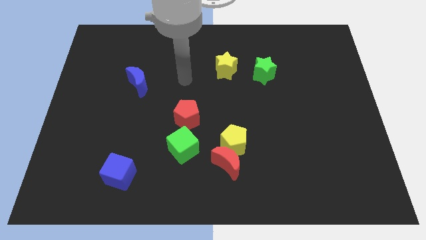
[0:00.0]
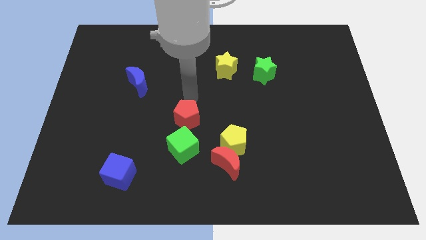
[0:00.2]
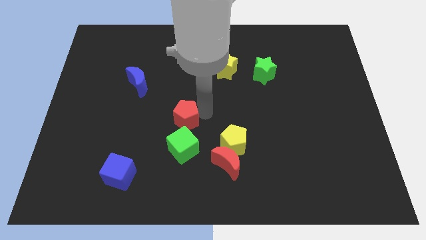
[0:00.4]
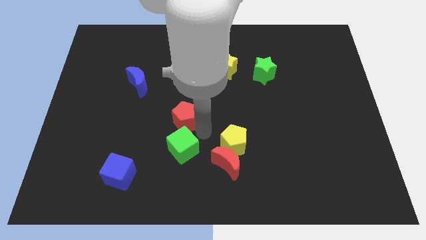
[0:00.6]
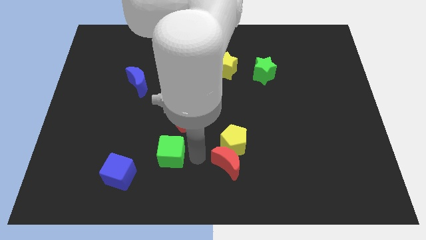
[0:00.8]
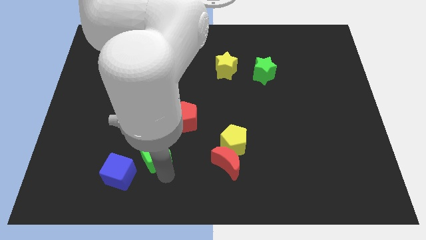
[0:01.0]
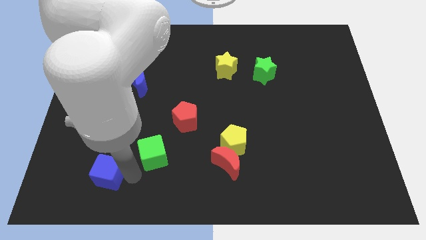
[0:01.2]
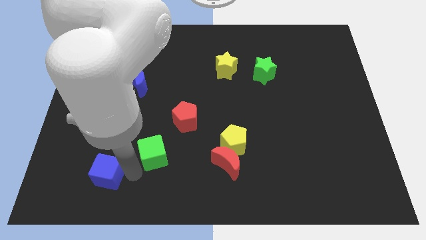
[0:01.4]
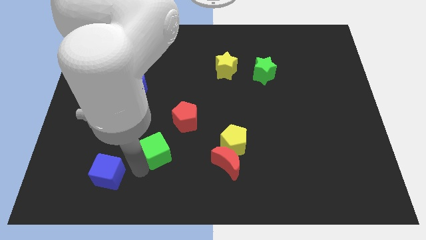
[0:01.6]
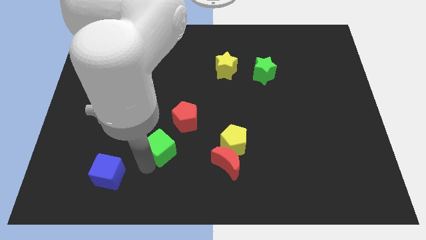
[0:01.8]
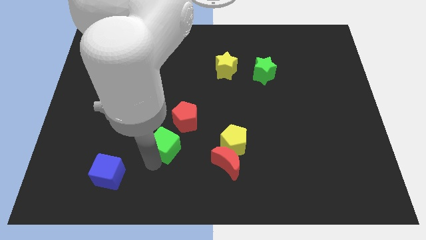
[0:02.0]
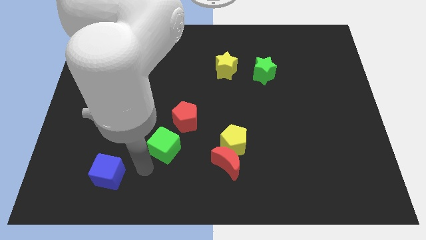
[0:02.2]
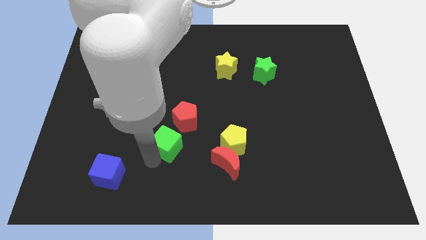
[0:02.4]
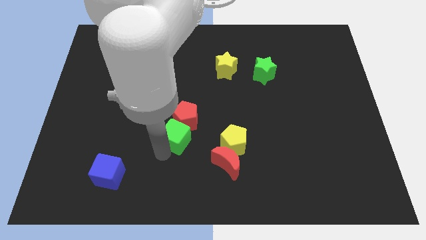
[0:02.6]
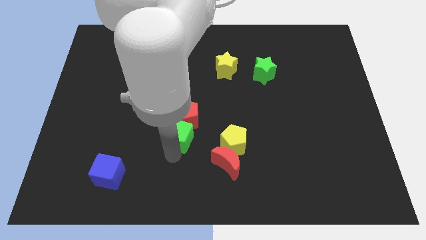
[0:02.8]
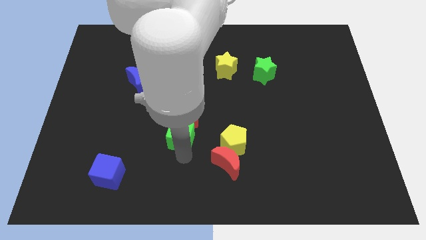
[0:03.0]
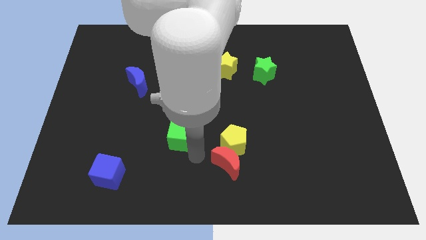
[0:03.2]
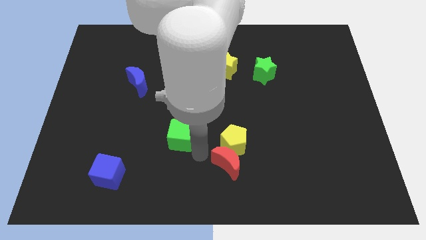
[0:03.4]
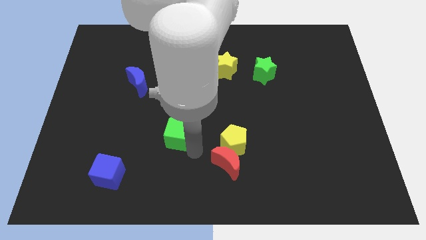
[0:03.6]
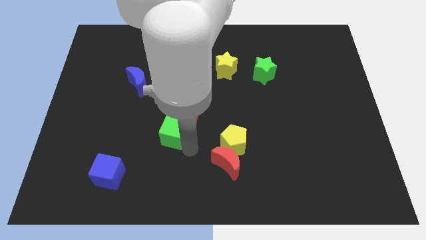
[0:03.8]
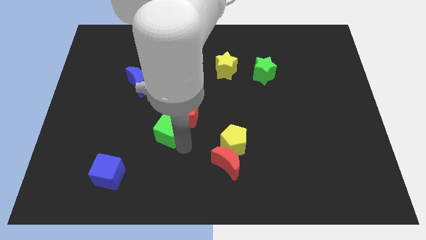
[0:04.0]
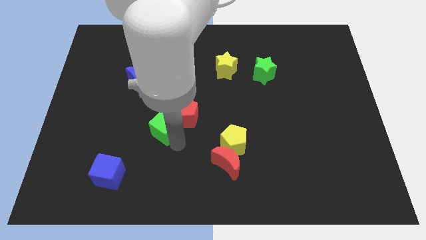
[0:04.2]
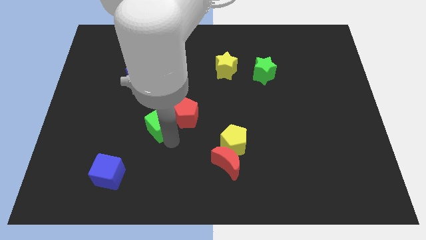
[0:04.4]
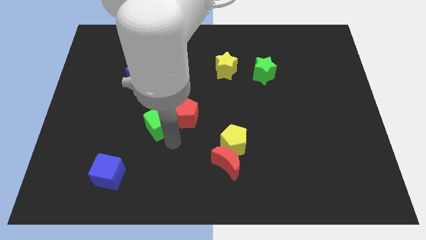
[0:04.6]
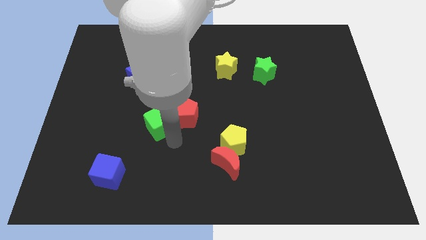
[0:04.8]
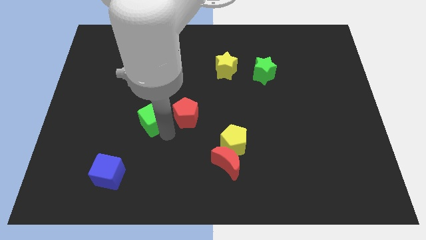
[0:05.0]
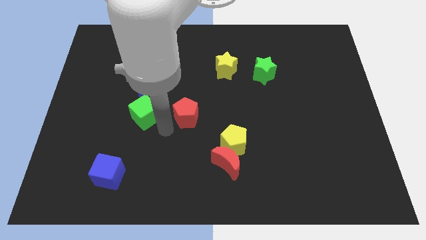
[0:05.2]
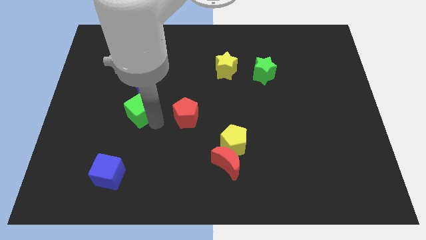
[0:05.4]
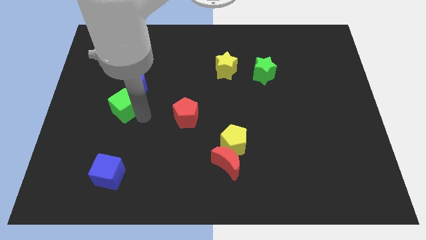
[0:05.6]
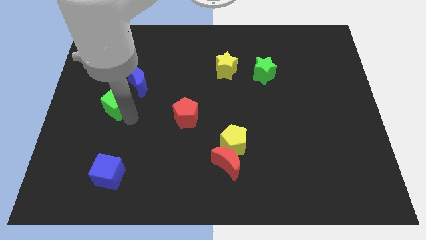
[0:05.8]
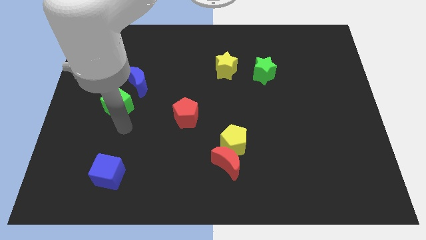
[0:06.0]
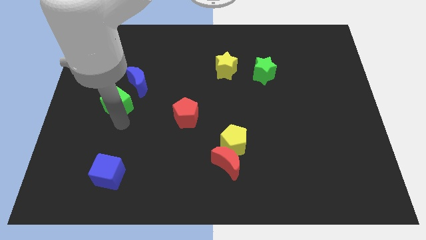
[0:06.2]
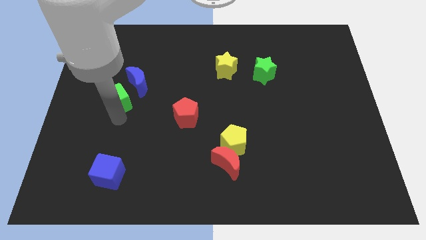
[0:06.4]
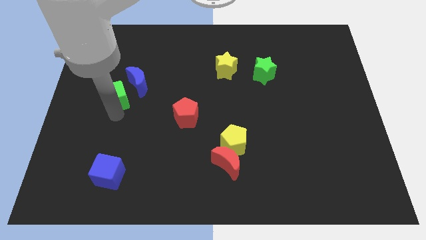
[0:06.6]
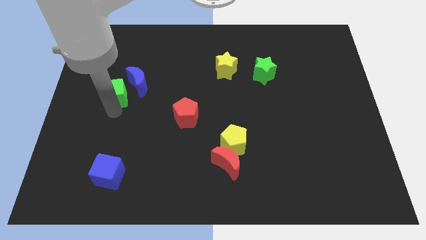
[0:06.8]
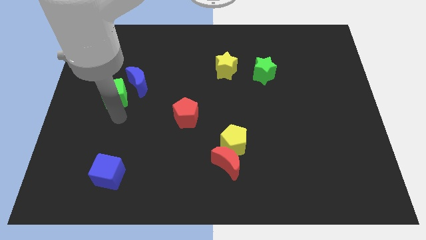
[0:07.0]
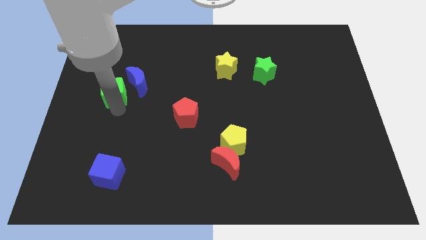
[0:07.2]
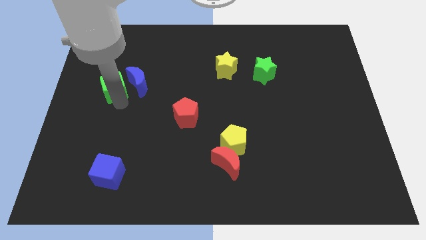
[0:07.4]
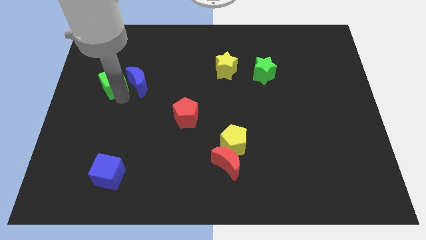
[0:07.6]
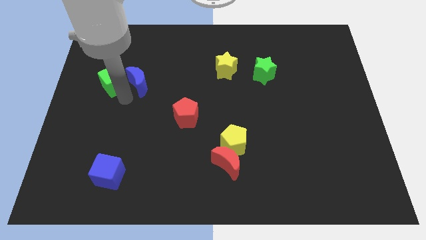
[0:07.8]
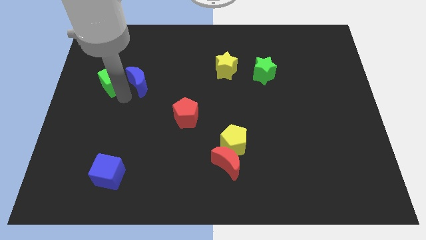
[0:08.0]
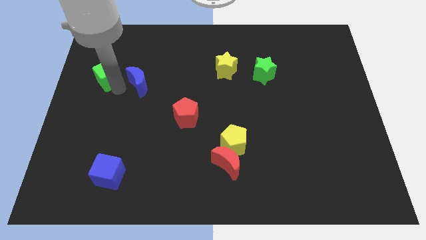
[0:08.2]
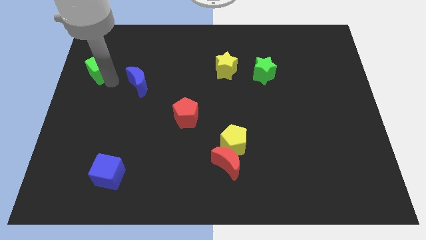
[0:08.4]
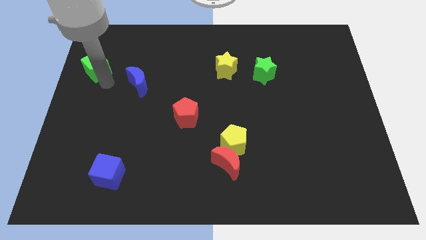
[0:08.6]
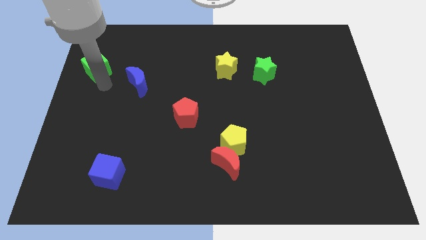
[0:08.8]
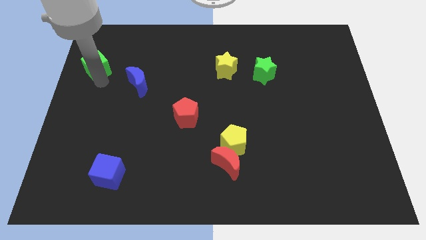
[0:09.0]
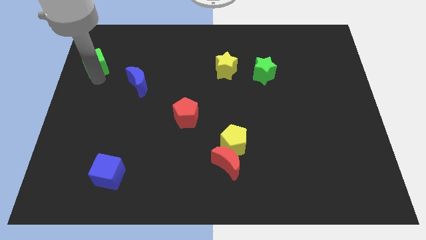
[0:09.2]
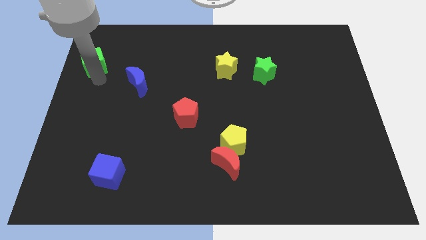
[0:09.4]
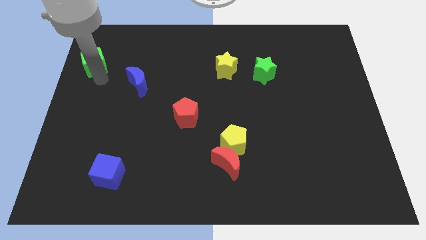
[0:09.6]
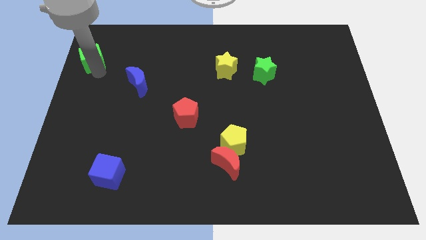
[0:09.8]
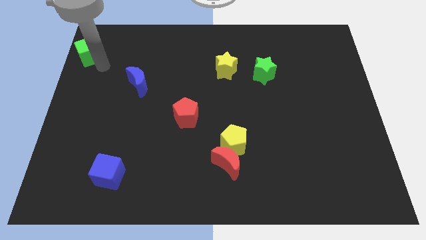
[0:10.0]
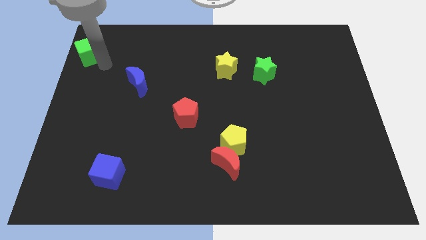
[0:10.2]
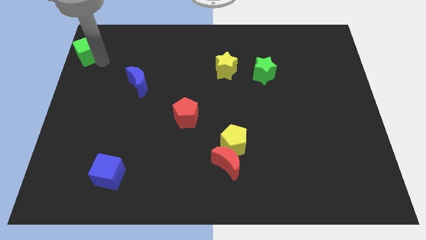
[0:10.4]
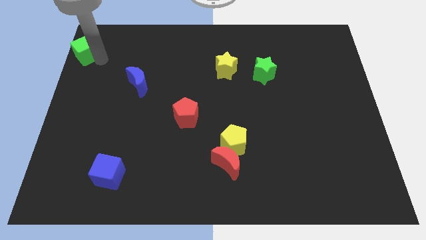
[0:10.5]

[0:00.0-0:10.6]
push the green cube to the top left

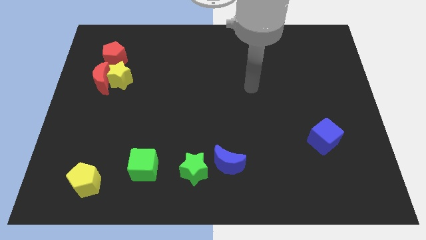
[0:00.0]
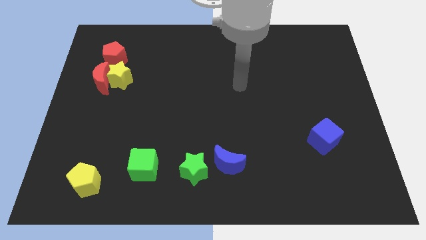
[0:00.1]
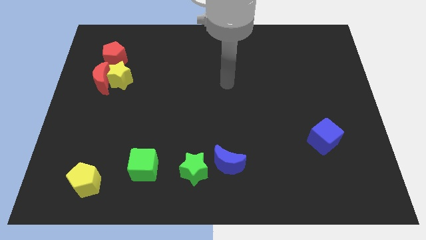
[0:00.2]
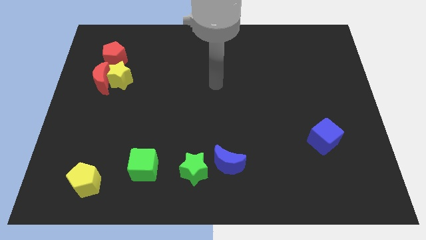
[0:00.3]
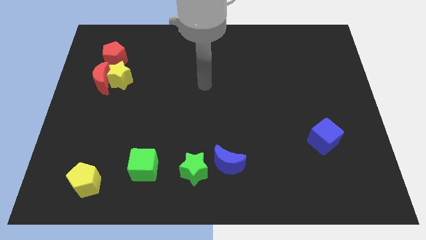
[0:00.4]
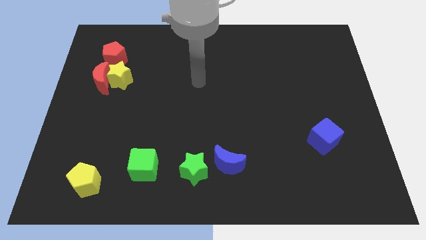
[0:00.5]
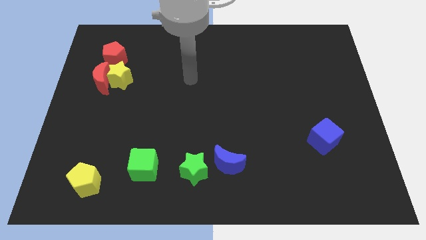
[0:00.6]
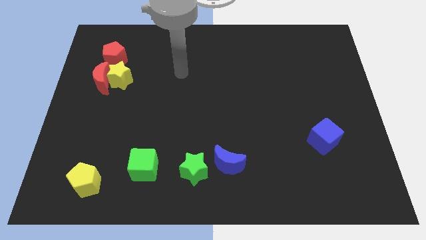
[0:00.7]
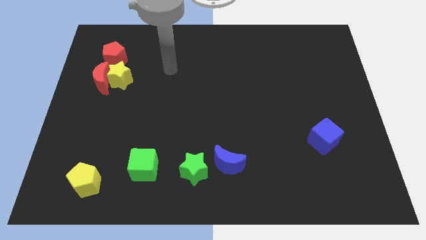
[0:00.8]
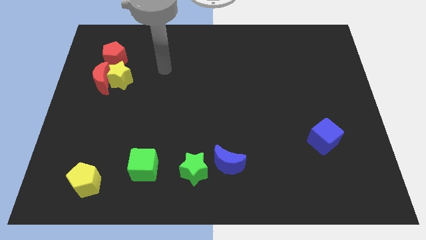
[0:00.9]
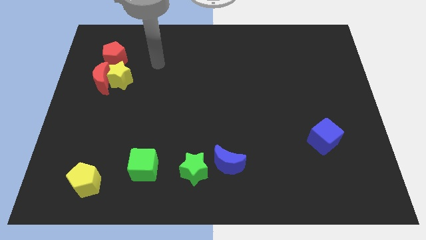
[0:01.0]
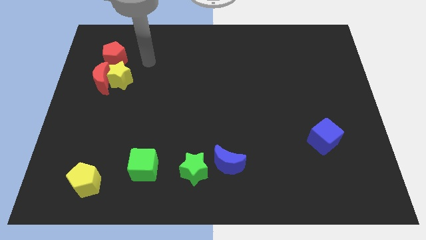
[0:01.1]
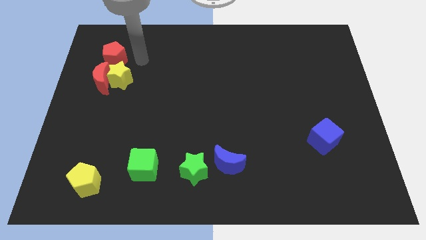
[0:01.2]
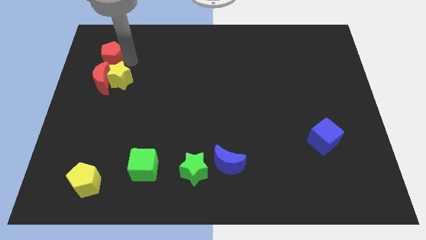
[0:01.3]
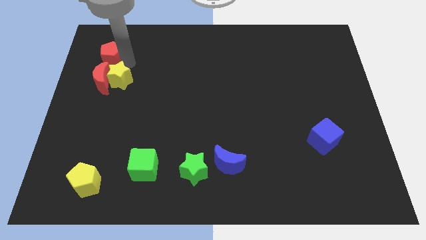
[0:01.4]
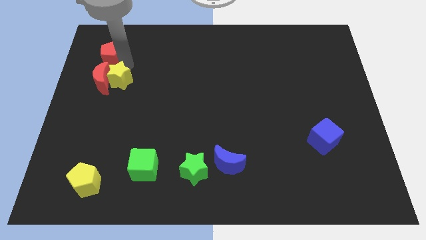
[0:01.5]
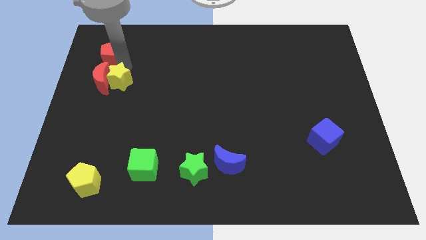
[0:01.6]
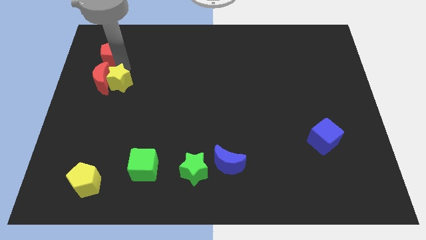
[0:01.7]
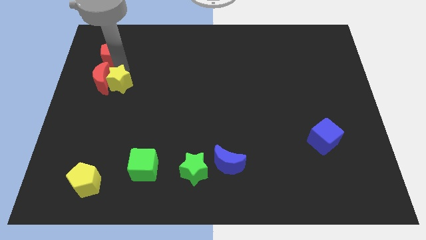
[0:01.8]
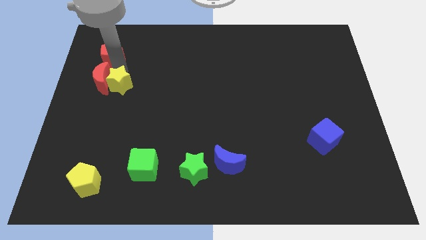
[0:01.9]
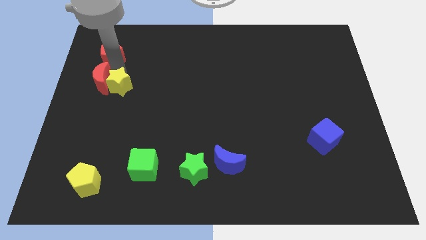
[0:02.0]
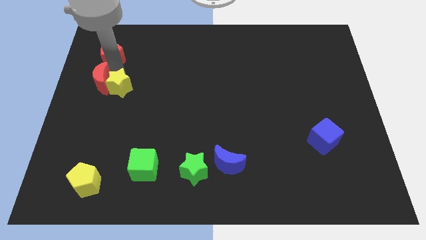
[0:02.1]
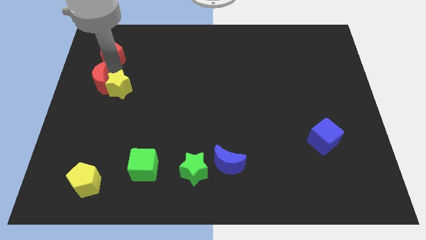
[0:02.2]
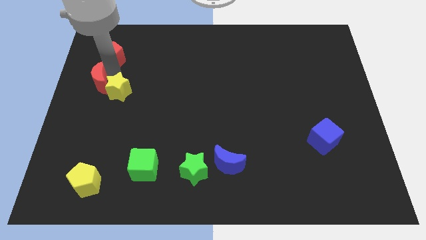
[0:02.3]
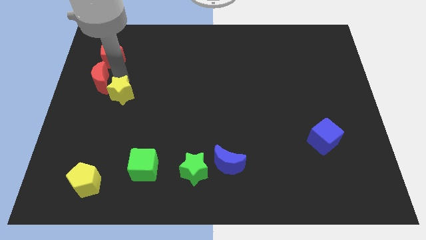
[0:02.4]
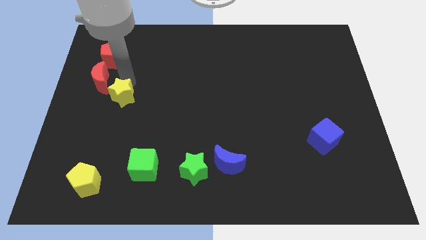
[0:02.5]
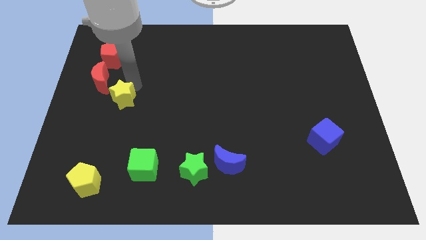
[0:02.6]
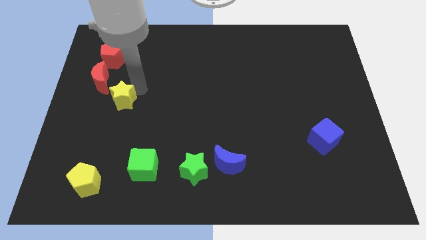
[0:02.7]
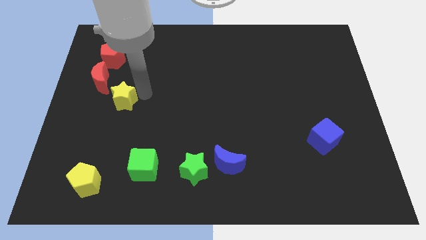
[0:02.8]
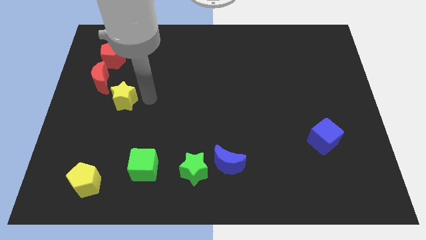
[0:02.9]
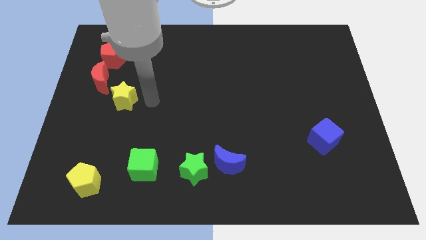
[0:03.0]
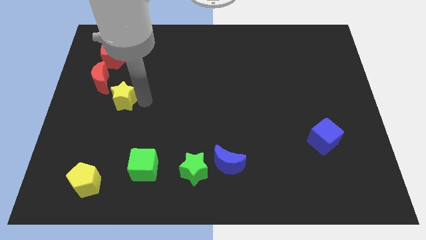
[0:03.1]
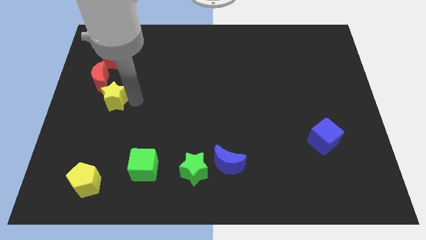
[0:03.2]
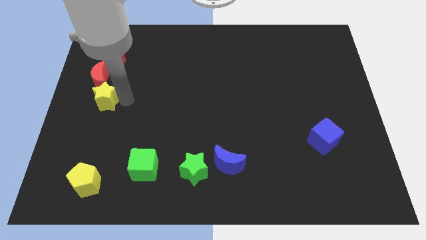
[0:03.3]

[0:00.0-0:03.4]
slide the yellow star to the center left
